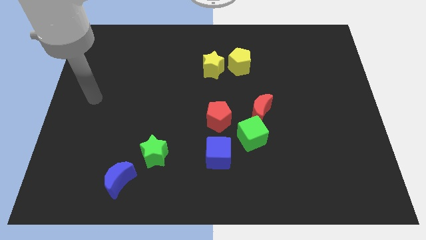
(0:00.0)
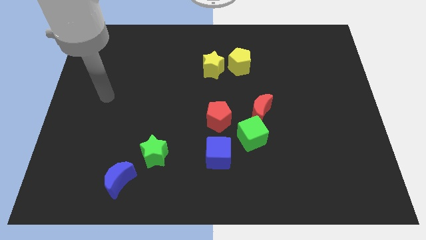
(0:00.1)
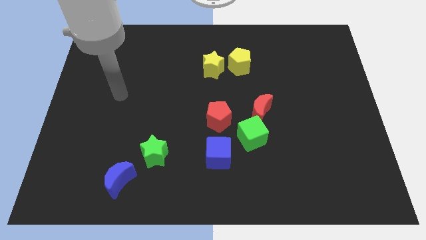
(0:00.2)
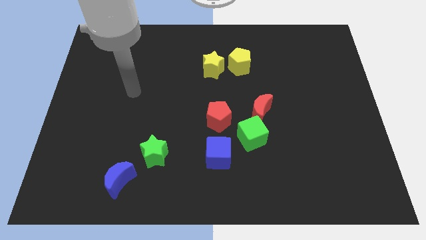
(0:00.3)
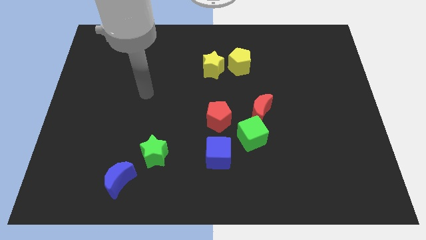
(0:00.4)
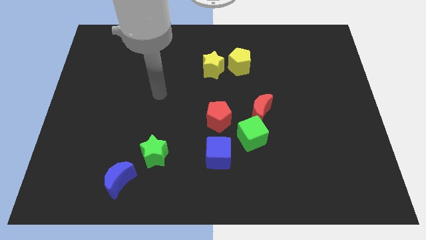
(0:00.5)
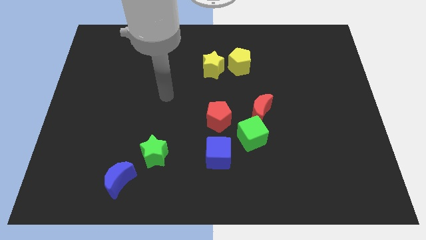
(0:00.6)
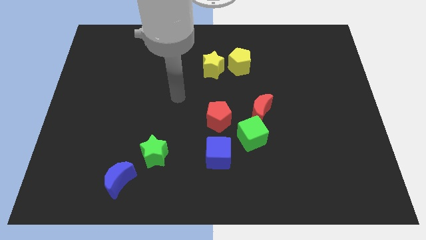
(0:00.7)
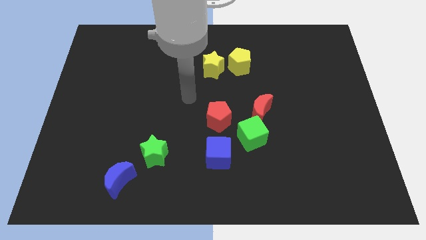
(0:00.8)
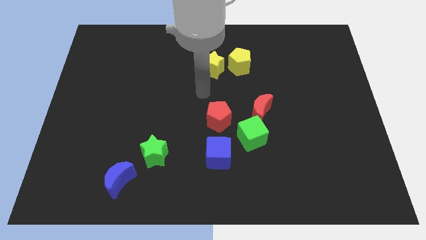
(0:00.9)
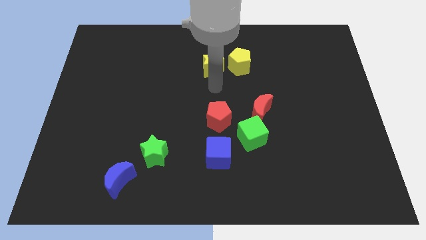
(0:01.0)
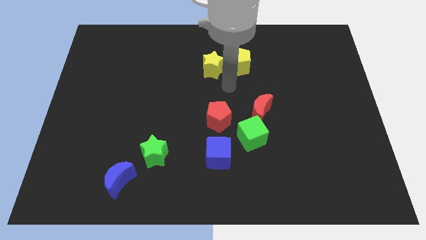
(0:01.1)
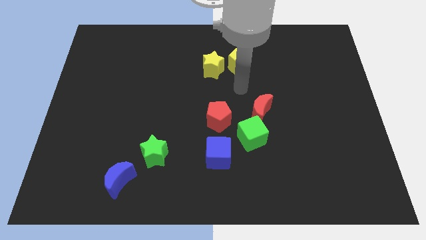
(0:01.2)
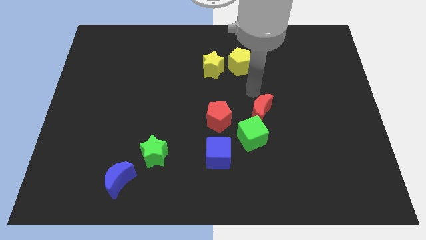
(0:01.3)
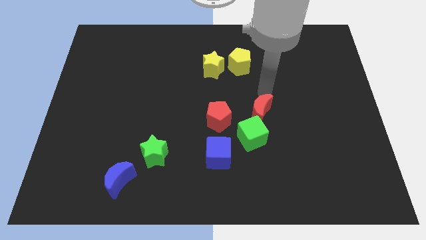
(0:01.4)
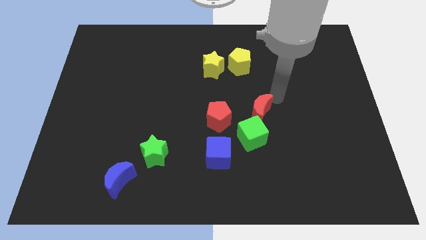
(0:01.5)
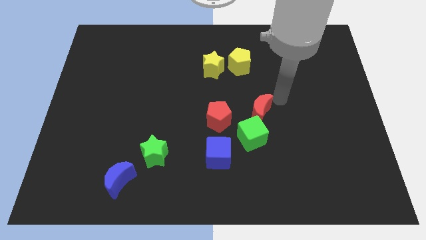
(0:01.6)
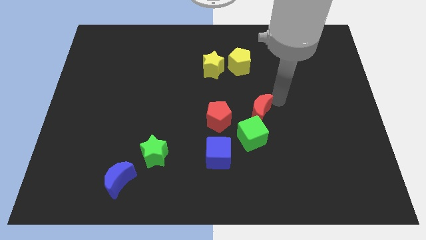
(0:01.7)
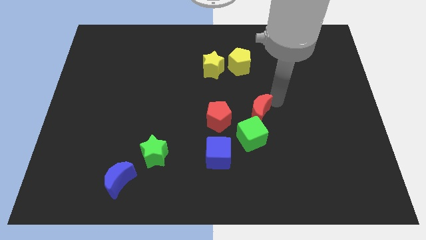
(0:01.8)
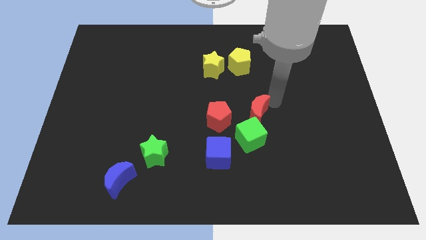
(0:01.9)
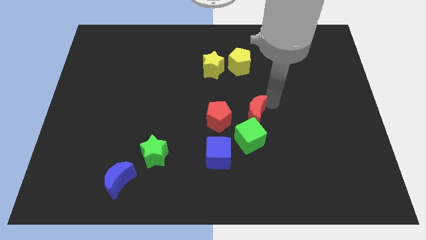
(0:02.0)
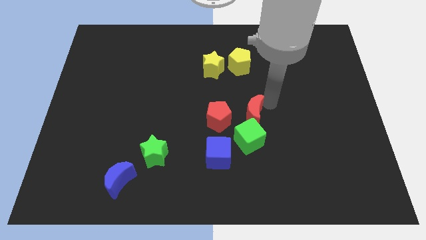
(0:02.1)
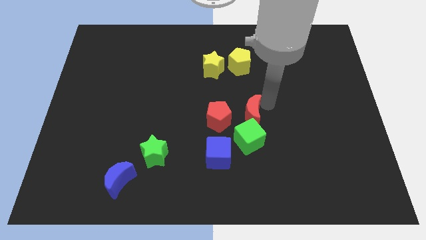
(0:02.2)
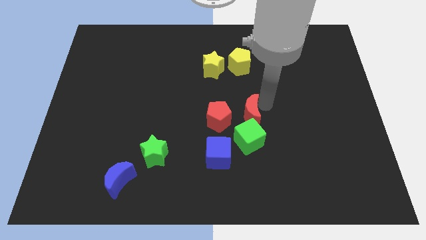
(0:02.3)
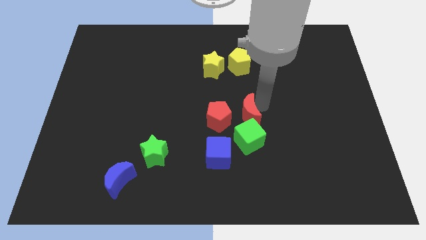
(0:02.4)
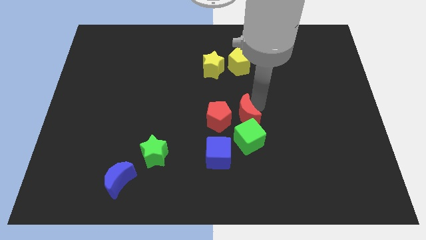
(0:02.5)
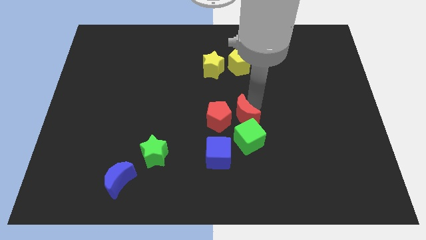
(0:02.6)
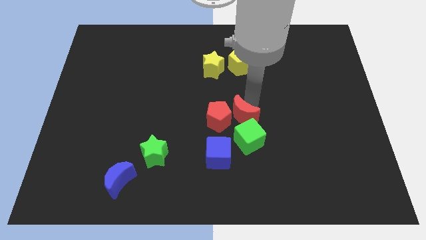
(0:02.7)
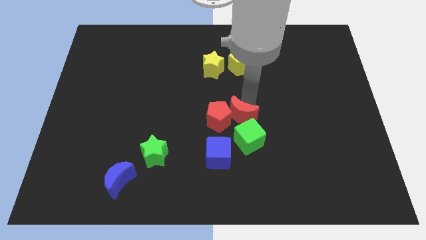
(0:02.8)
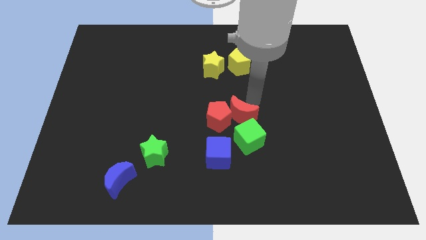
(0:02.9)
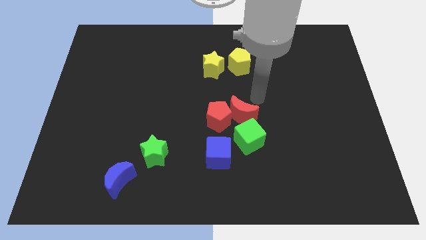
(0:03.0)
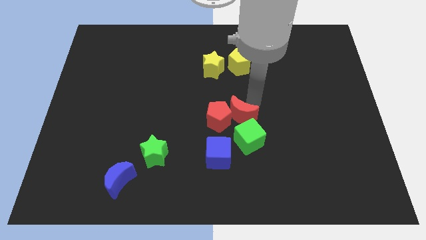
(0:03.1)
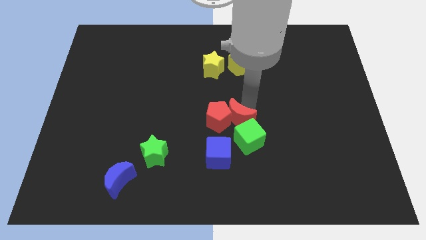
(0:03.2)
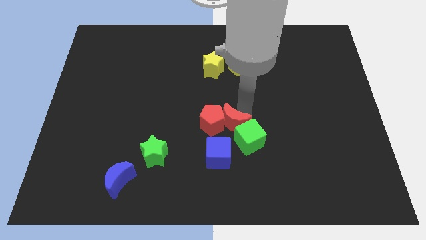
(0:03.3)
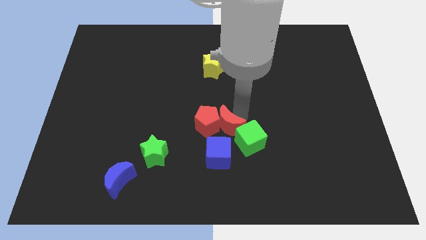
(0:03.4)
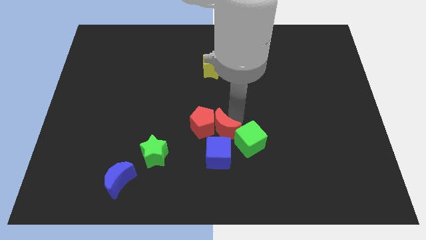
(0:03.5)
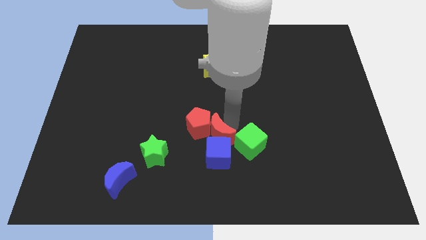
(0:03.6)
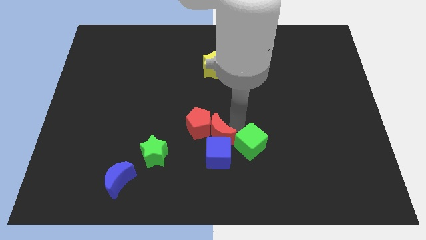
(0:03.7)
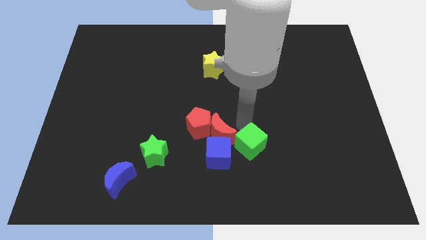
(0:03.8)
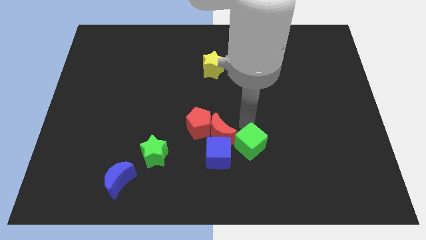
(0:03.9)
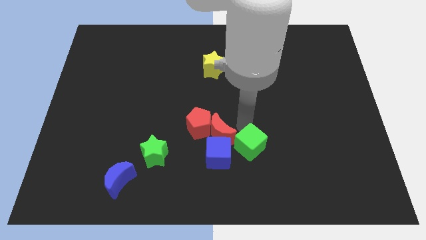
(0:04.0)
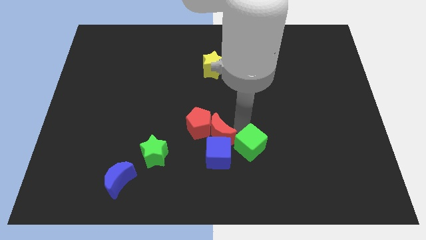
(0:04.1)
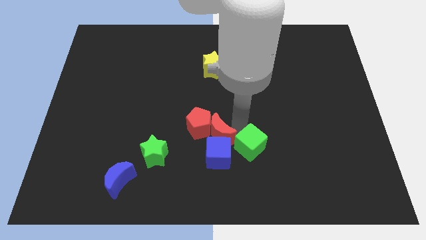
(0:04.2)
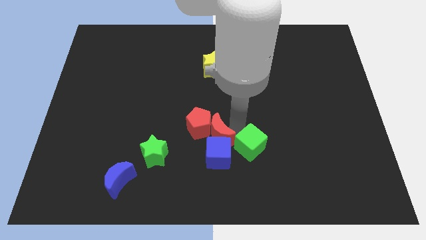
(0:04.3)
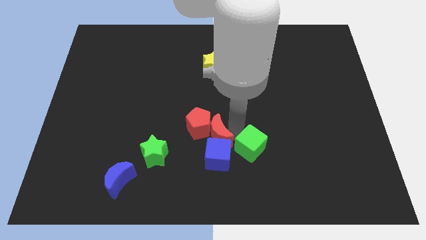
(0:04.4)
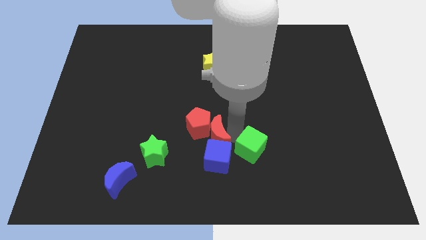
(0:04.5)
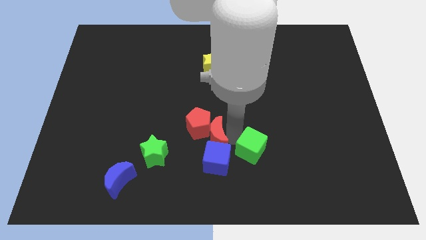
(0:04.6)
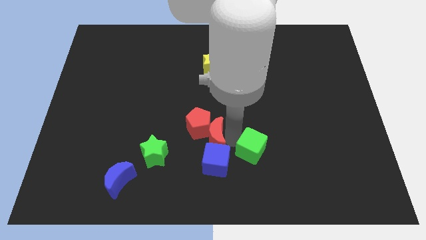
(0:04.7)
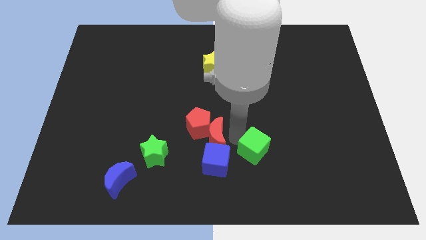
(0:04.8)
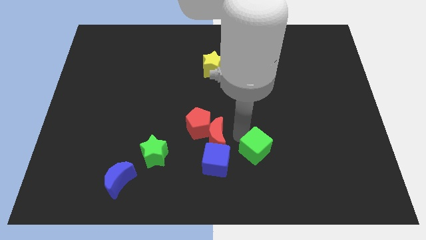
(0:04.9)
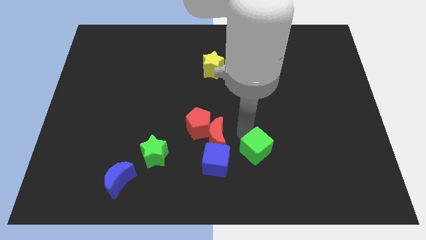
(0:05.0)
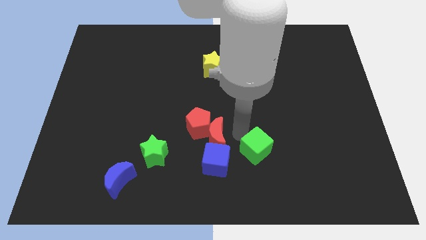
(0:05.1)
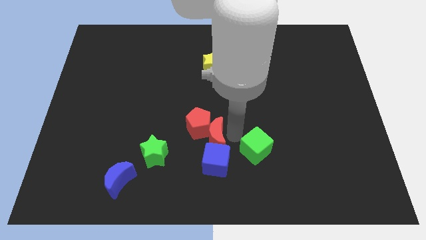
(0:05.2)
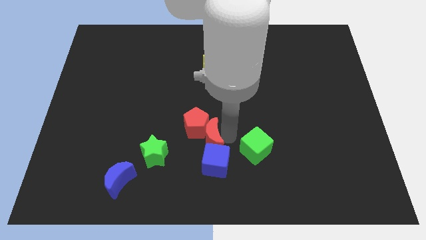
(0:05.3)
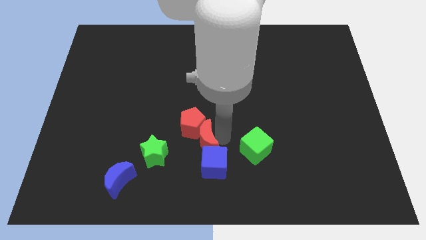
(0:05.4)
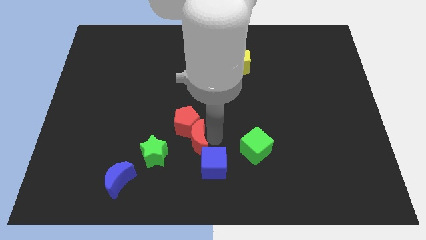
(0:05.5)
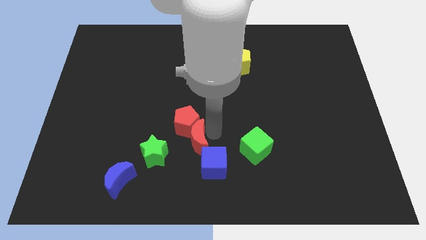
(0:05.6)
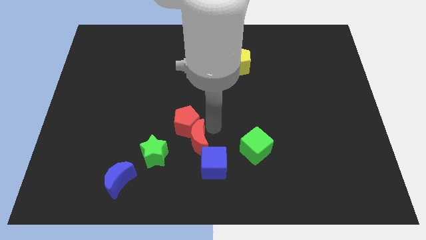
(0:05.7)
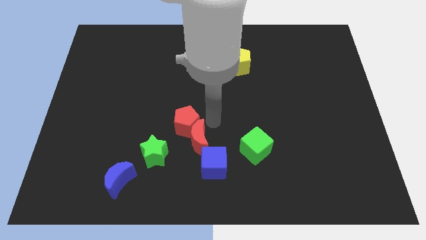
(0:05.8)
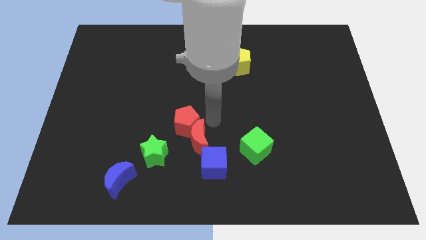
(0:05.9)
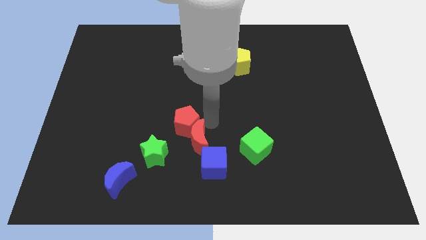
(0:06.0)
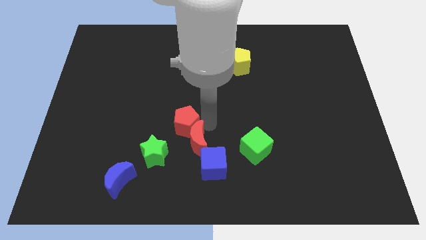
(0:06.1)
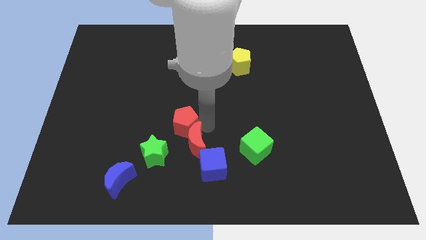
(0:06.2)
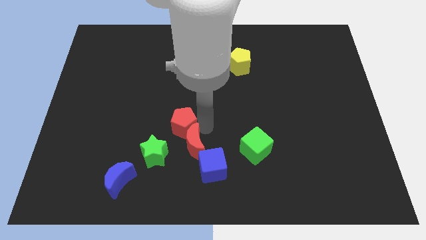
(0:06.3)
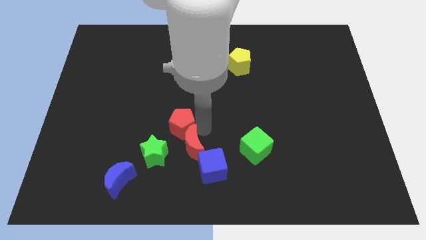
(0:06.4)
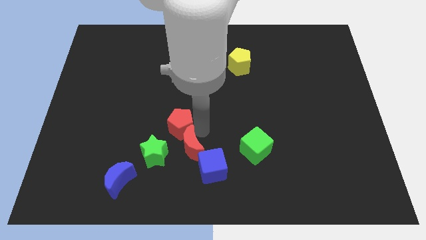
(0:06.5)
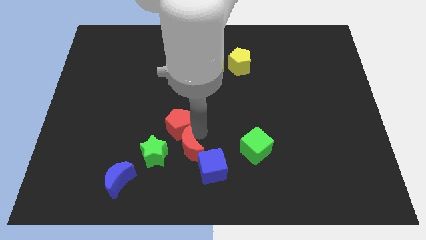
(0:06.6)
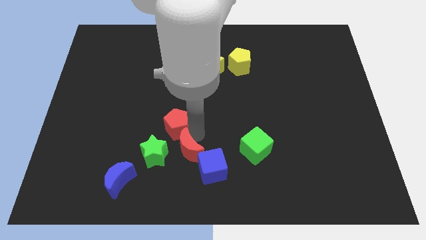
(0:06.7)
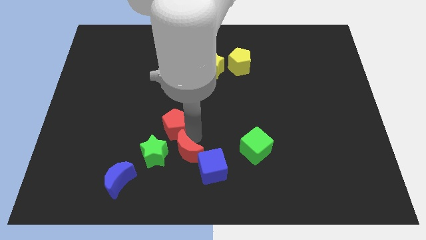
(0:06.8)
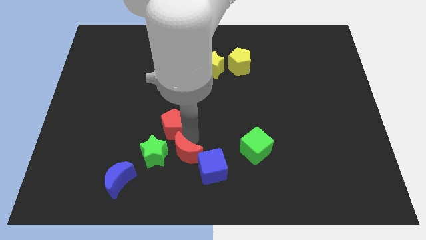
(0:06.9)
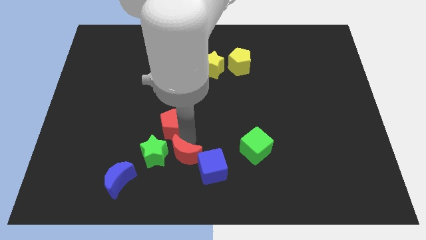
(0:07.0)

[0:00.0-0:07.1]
move the red moon to the bottom right side of the green star
